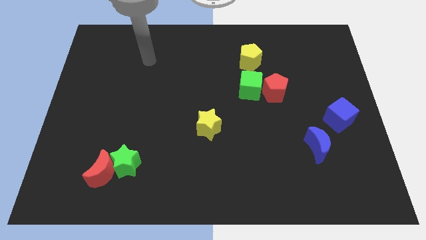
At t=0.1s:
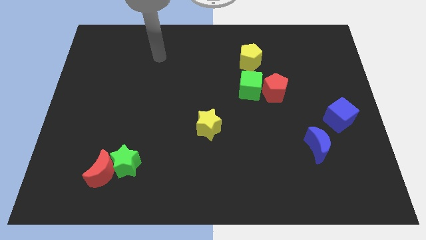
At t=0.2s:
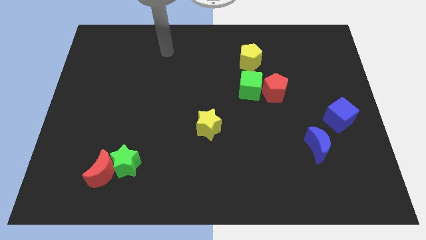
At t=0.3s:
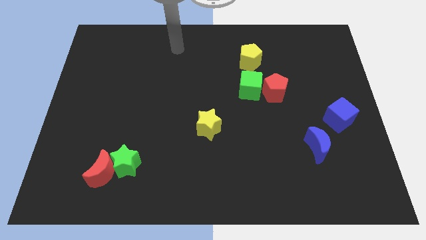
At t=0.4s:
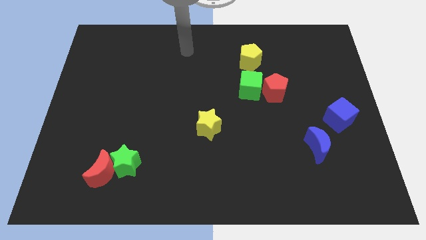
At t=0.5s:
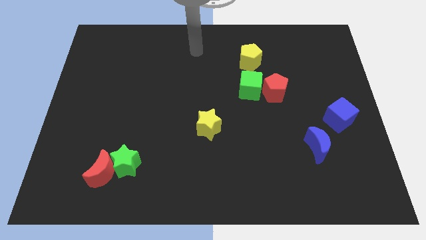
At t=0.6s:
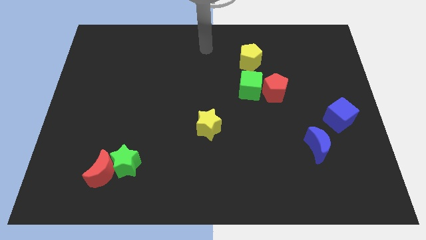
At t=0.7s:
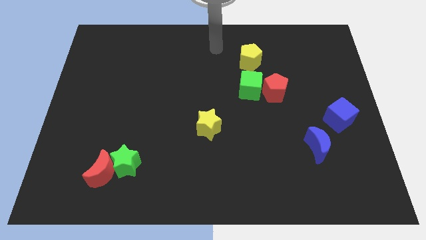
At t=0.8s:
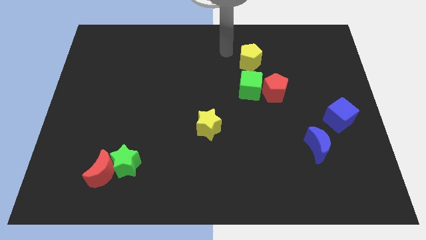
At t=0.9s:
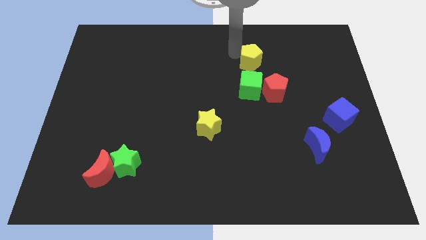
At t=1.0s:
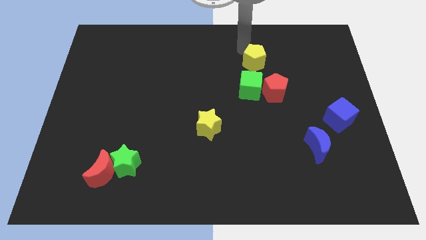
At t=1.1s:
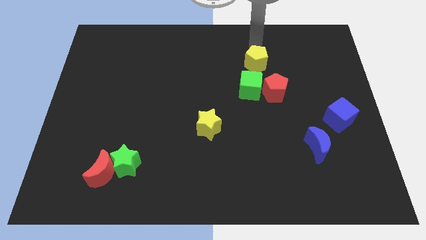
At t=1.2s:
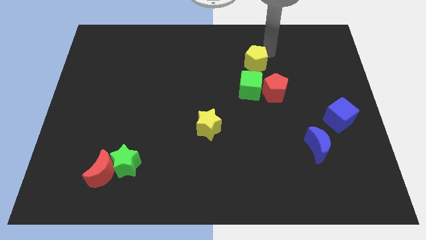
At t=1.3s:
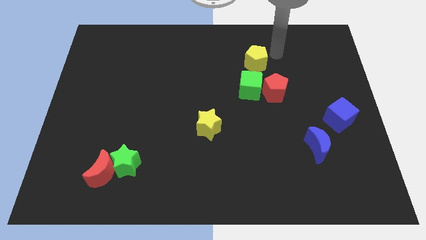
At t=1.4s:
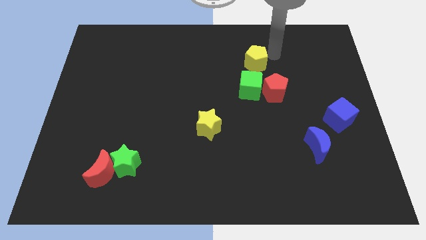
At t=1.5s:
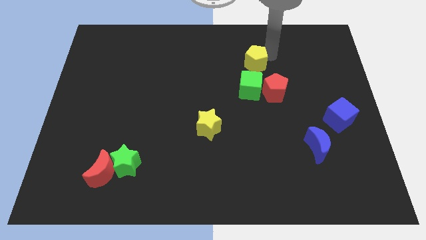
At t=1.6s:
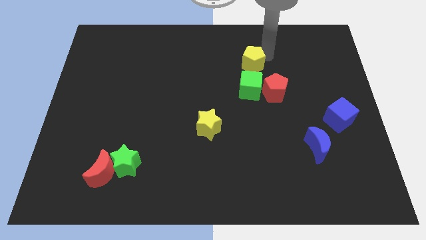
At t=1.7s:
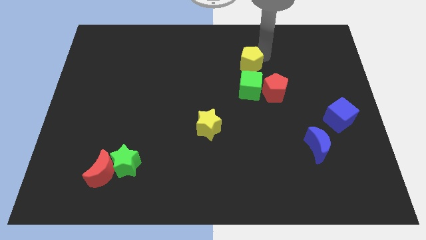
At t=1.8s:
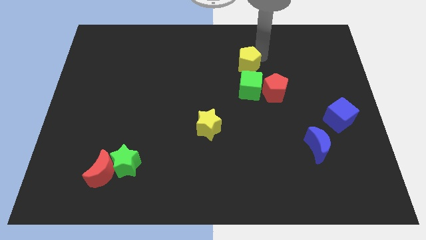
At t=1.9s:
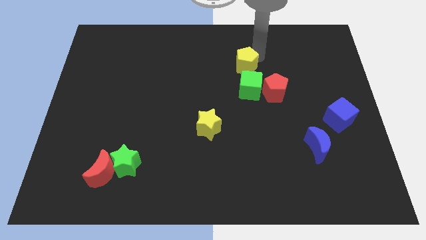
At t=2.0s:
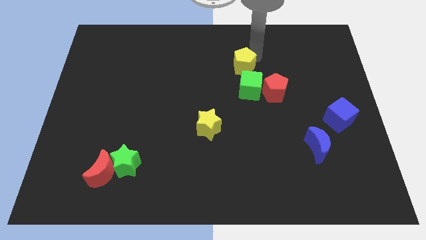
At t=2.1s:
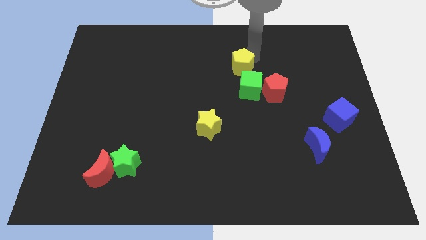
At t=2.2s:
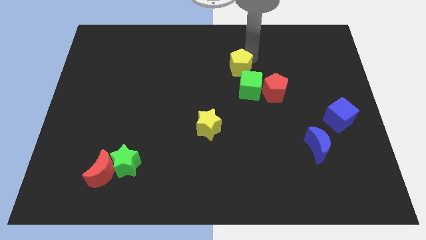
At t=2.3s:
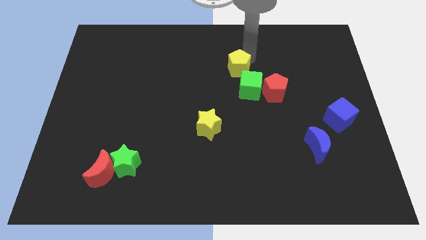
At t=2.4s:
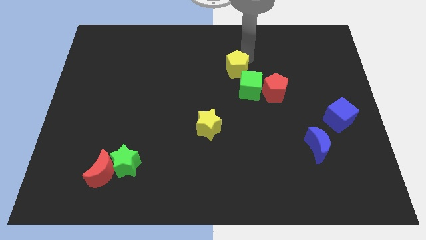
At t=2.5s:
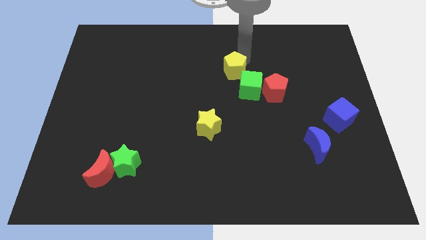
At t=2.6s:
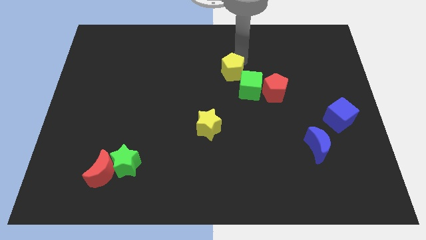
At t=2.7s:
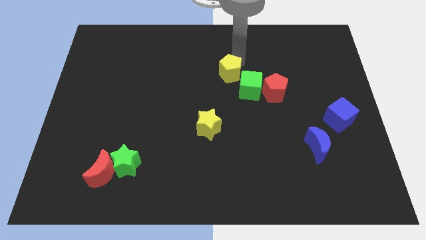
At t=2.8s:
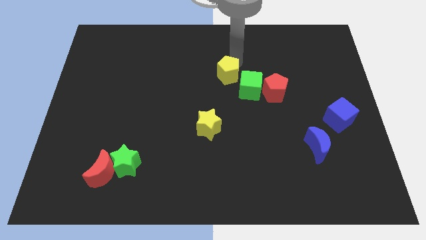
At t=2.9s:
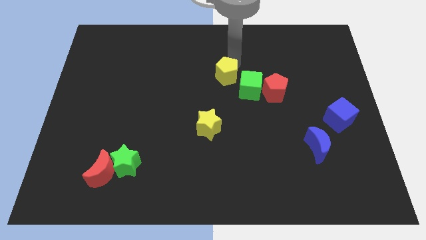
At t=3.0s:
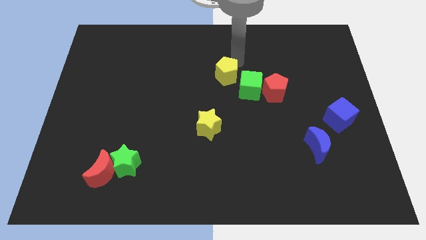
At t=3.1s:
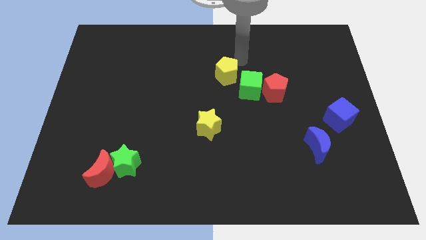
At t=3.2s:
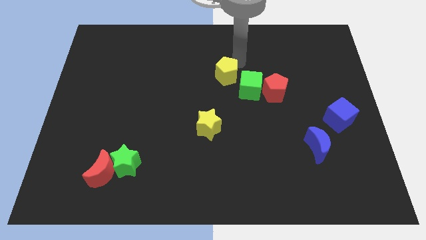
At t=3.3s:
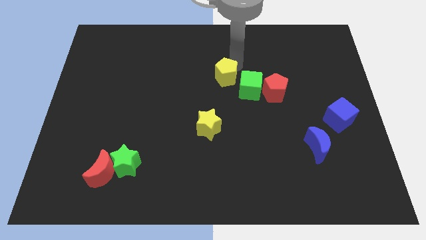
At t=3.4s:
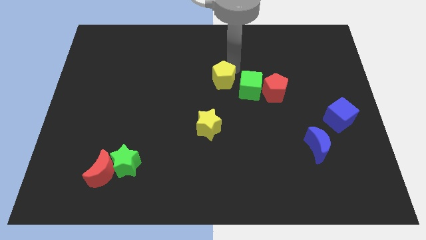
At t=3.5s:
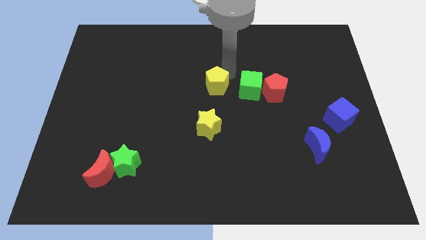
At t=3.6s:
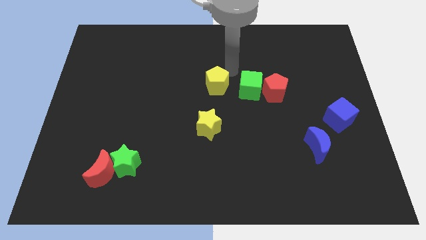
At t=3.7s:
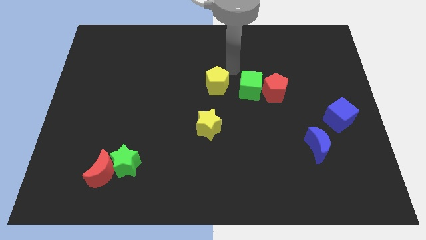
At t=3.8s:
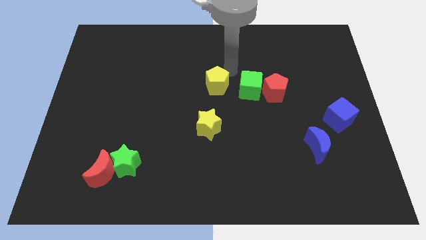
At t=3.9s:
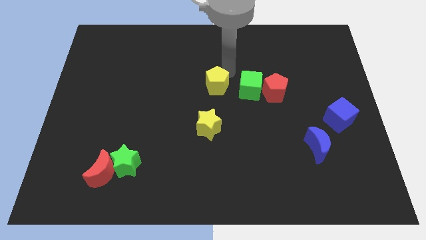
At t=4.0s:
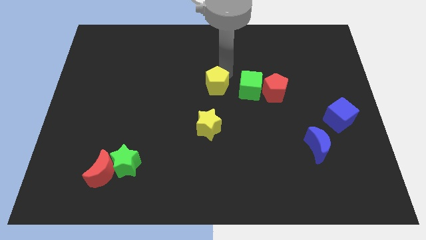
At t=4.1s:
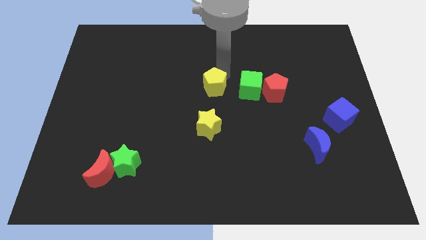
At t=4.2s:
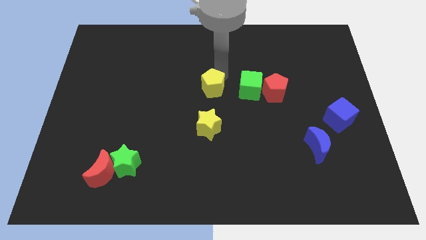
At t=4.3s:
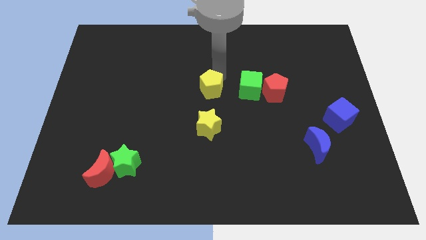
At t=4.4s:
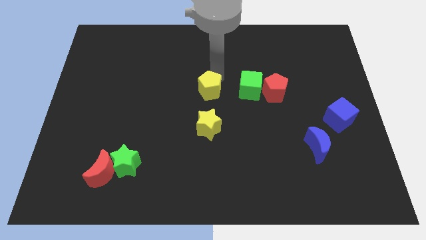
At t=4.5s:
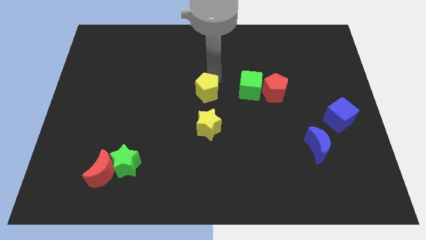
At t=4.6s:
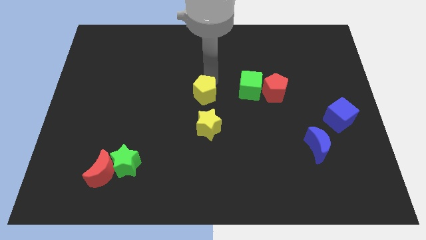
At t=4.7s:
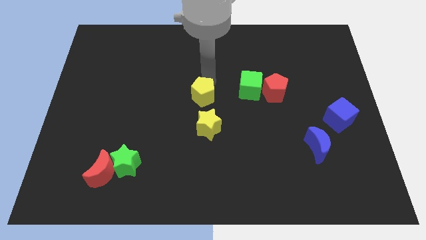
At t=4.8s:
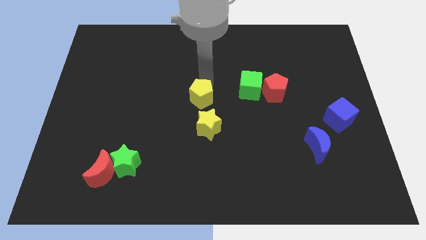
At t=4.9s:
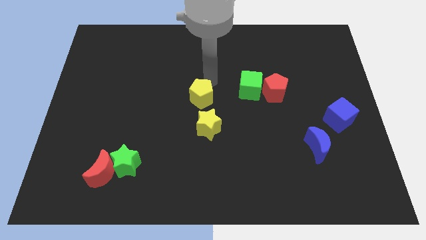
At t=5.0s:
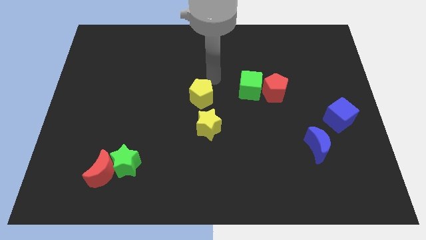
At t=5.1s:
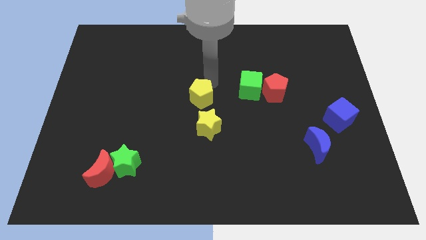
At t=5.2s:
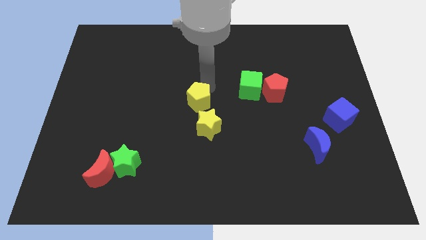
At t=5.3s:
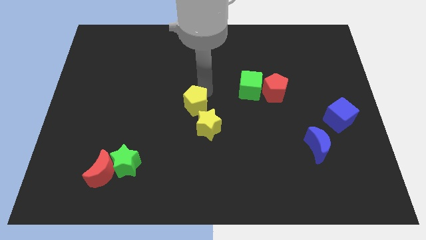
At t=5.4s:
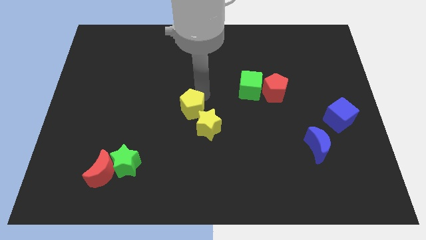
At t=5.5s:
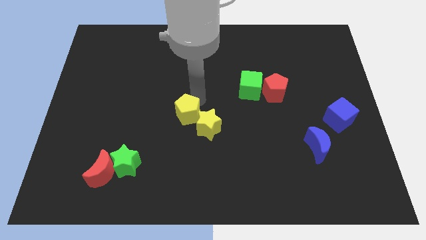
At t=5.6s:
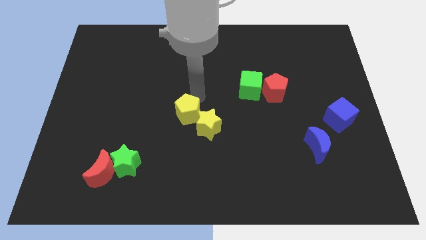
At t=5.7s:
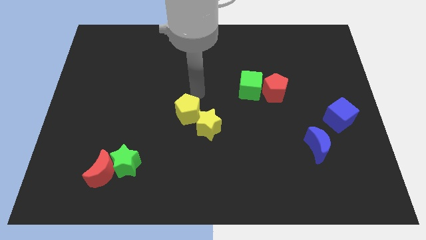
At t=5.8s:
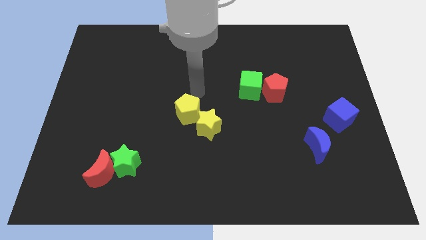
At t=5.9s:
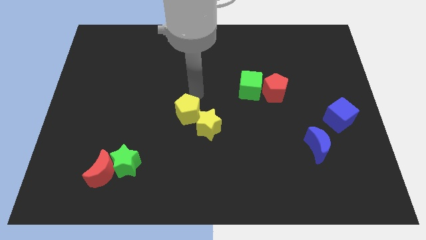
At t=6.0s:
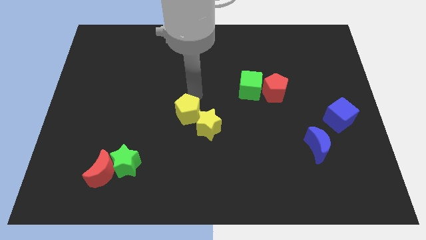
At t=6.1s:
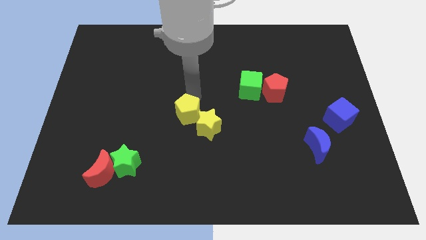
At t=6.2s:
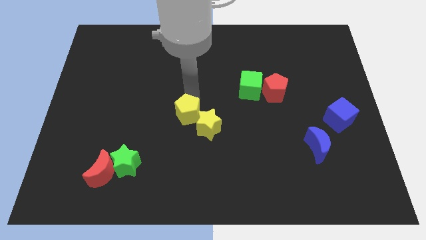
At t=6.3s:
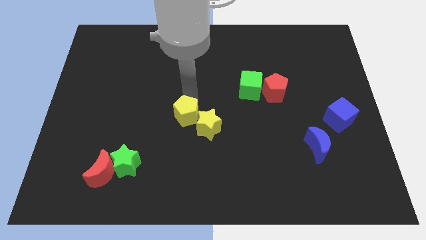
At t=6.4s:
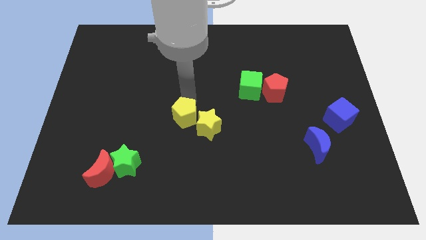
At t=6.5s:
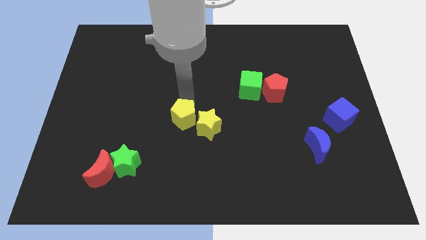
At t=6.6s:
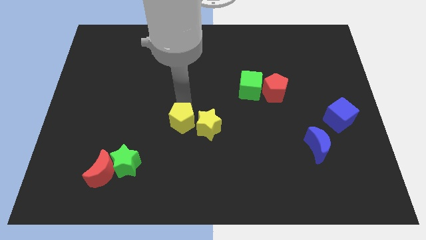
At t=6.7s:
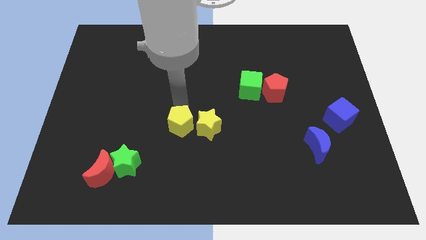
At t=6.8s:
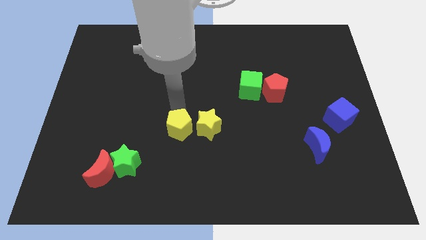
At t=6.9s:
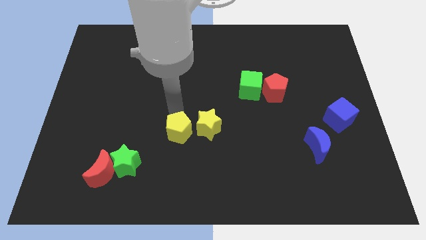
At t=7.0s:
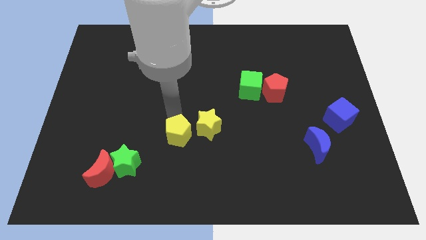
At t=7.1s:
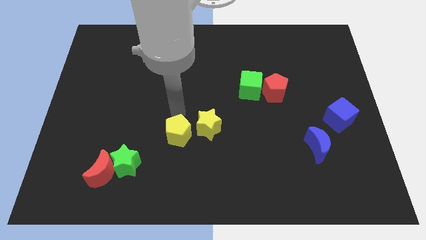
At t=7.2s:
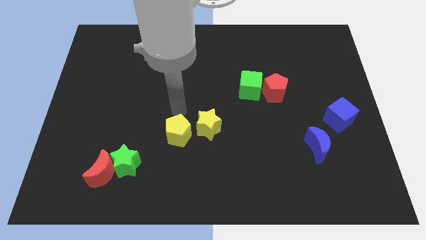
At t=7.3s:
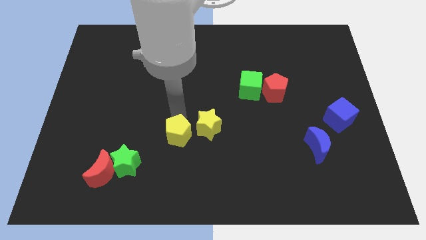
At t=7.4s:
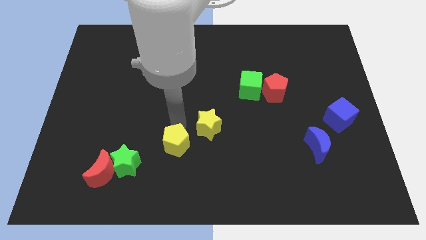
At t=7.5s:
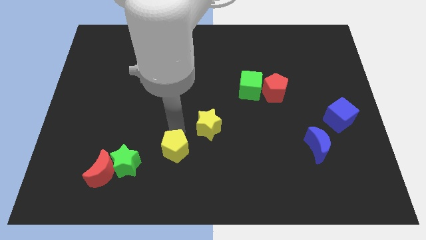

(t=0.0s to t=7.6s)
put the yellow pentagon to the right side of the green star
